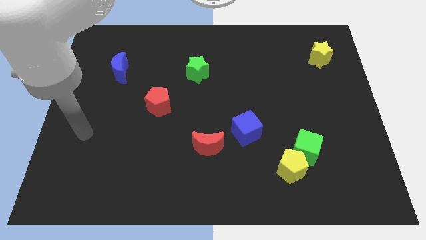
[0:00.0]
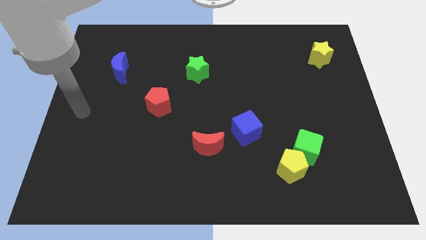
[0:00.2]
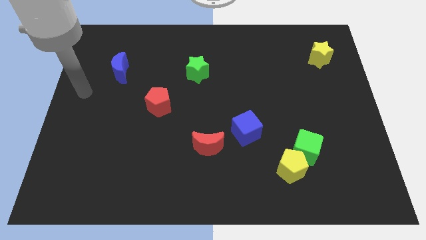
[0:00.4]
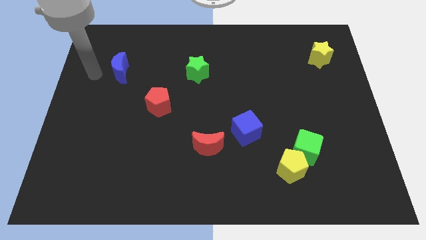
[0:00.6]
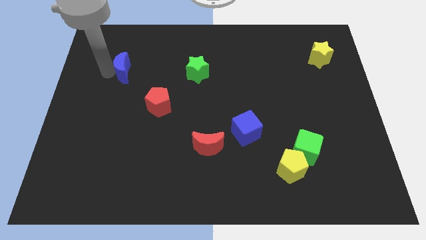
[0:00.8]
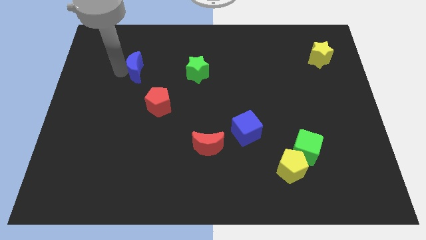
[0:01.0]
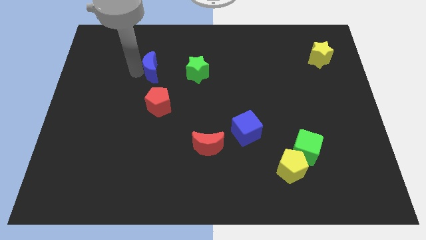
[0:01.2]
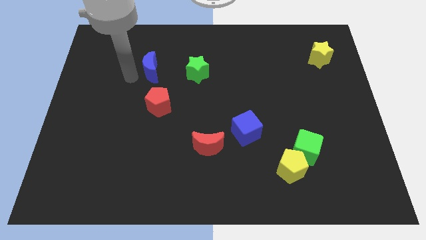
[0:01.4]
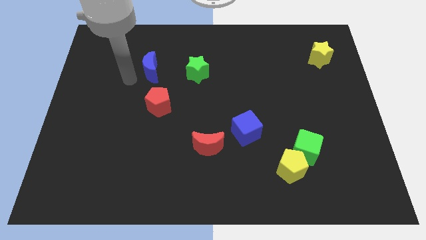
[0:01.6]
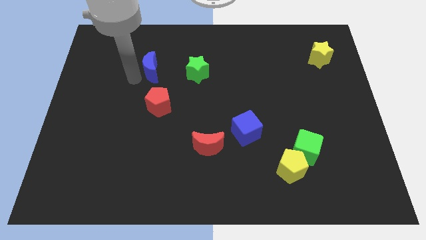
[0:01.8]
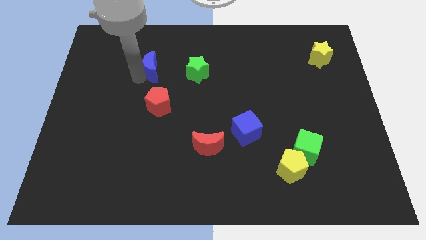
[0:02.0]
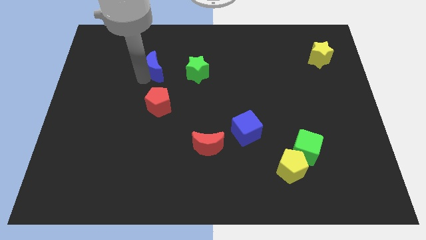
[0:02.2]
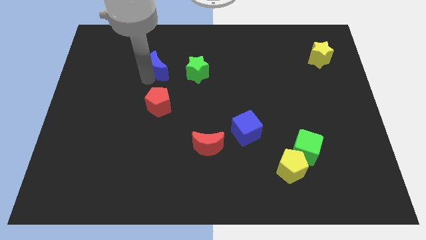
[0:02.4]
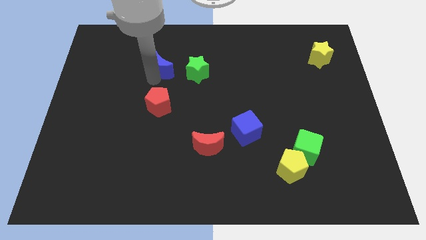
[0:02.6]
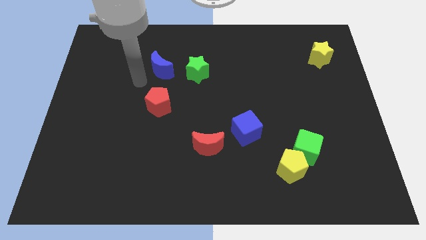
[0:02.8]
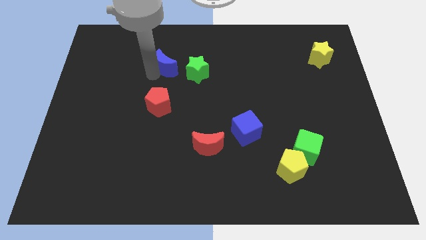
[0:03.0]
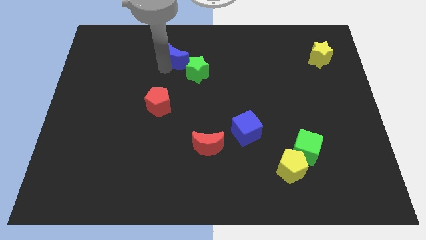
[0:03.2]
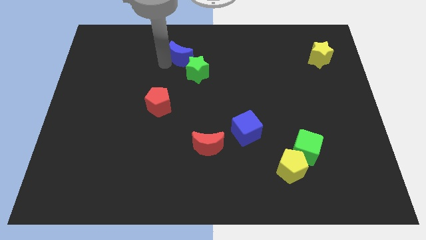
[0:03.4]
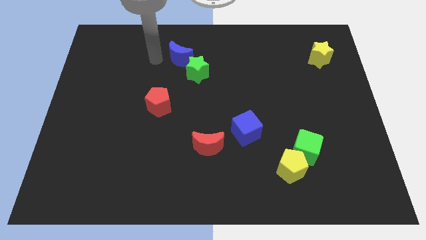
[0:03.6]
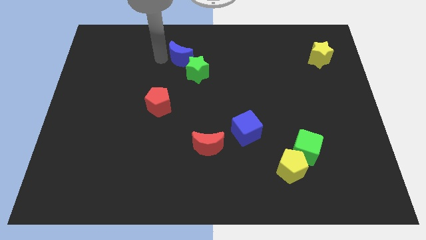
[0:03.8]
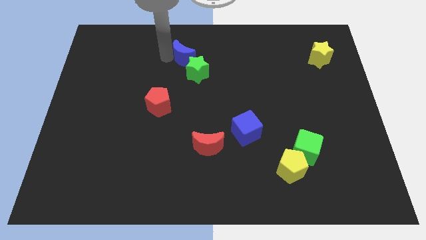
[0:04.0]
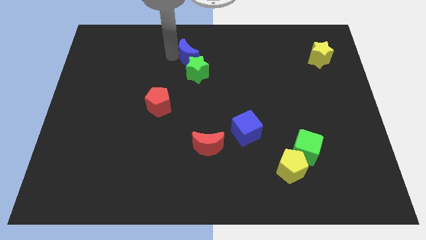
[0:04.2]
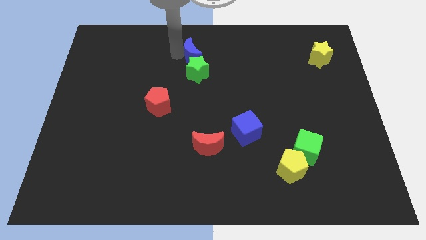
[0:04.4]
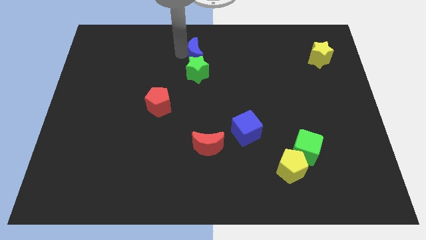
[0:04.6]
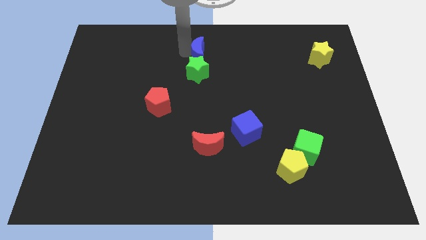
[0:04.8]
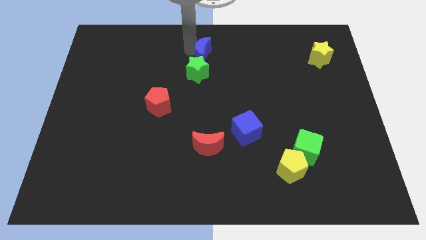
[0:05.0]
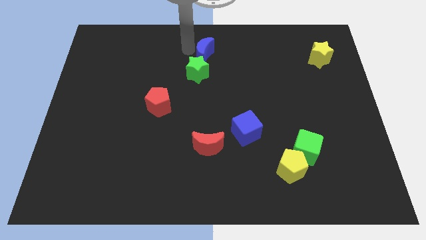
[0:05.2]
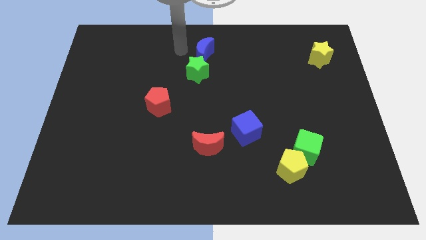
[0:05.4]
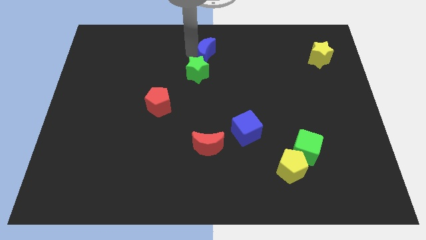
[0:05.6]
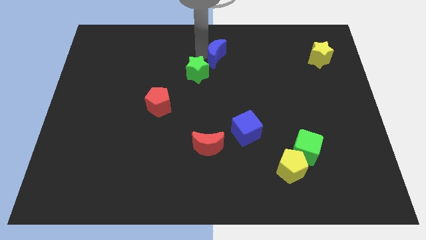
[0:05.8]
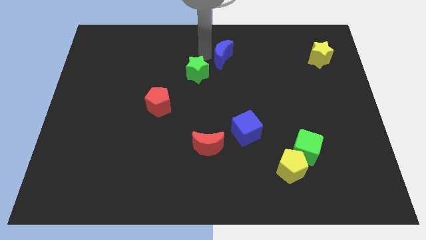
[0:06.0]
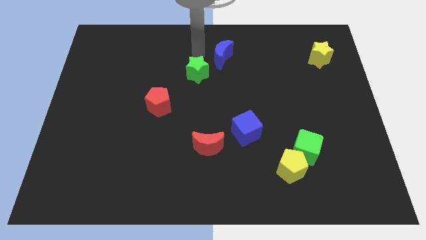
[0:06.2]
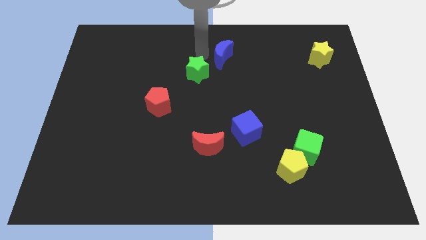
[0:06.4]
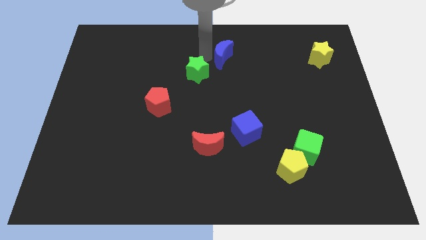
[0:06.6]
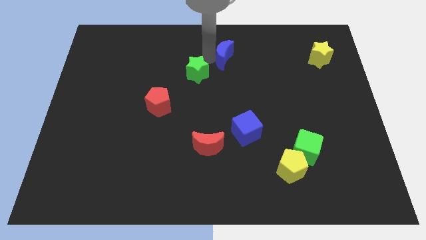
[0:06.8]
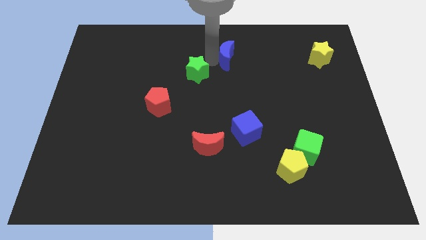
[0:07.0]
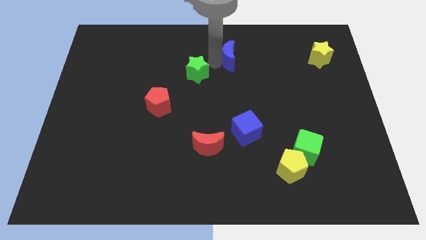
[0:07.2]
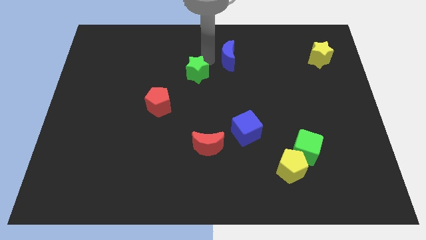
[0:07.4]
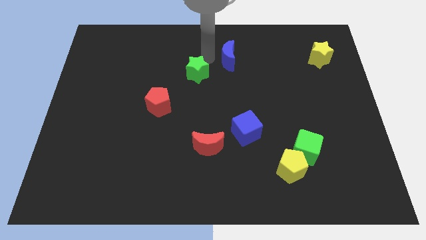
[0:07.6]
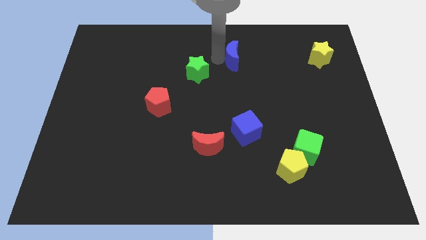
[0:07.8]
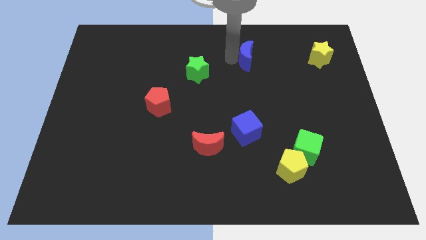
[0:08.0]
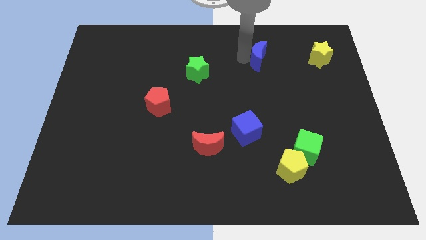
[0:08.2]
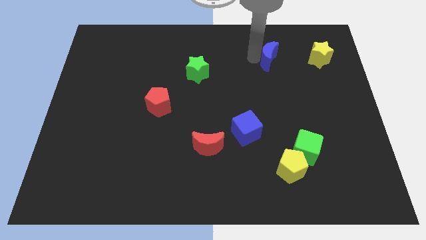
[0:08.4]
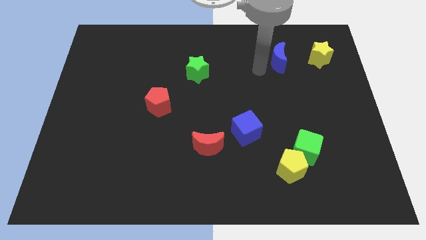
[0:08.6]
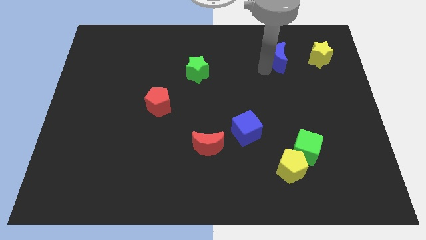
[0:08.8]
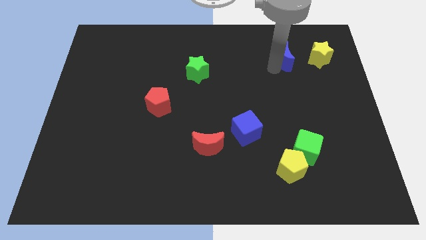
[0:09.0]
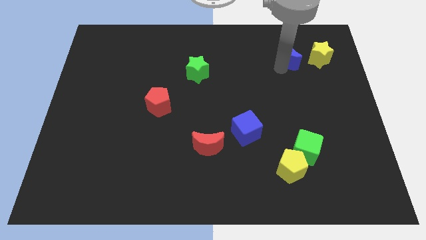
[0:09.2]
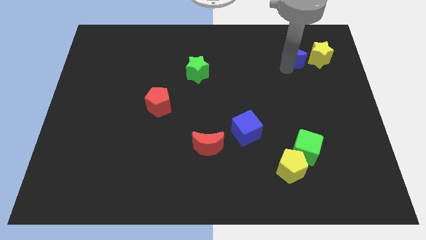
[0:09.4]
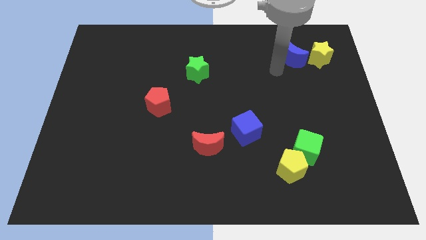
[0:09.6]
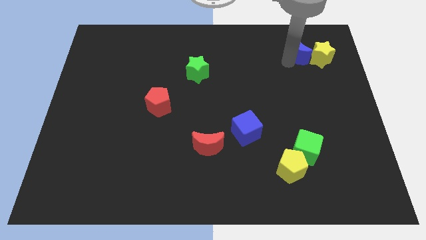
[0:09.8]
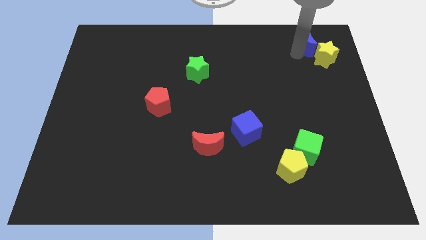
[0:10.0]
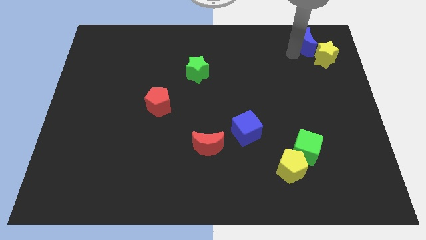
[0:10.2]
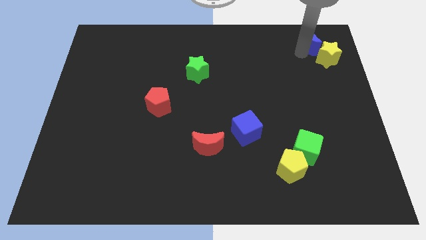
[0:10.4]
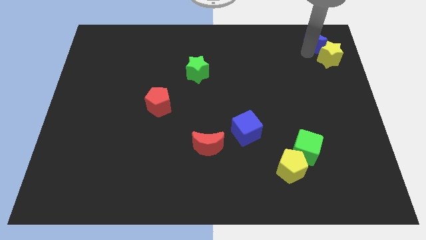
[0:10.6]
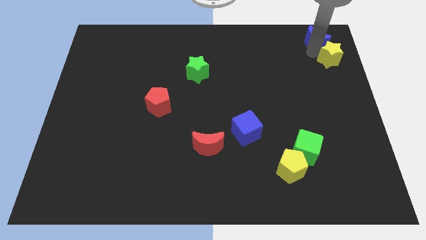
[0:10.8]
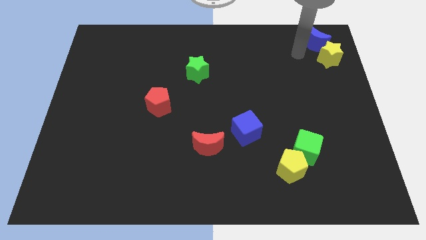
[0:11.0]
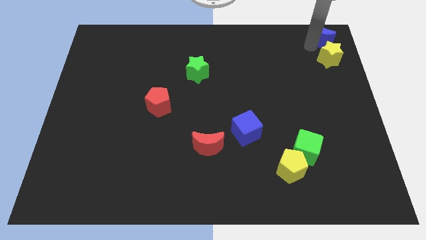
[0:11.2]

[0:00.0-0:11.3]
put the blue moon to the top right
